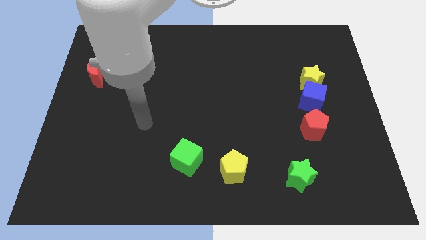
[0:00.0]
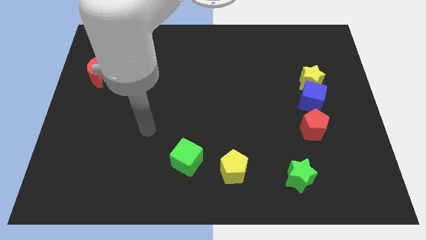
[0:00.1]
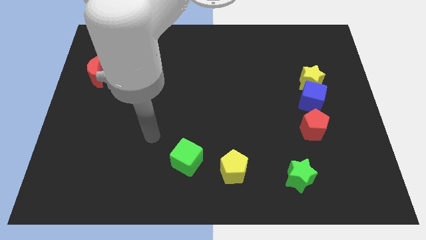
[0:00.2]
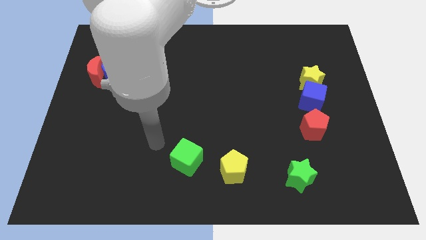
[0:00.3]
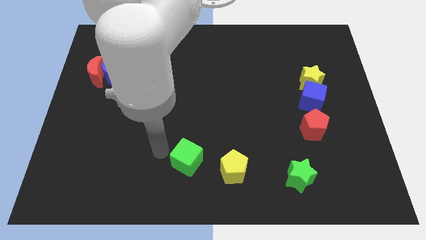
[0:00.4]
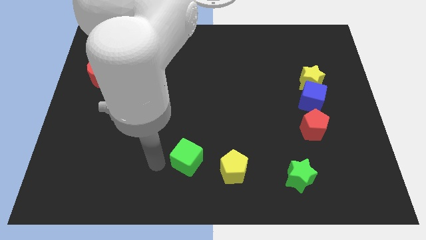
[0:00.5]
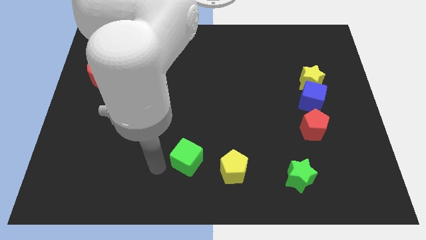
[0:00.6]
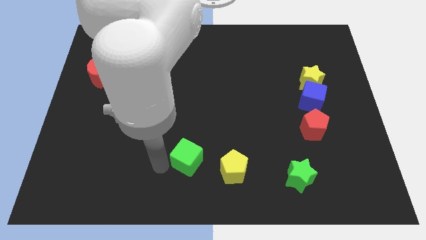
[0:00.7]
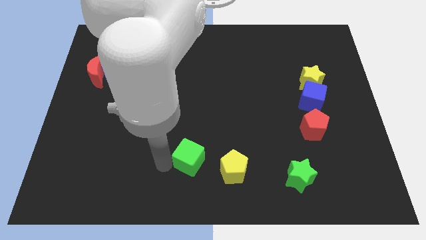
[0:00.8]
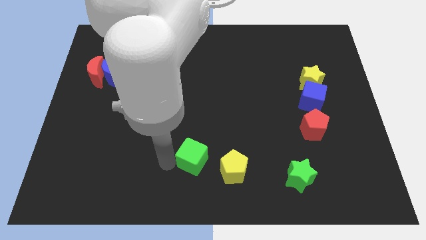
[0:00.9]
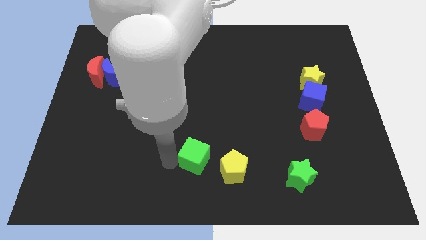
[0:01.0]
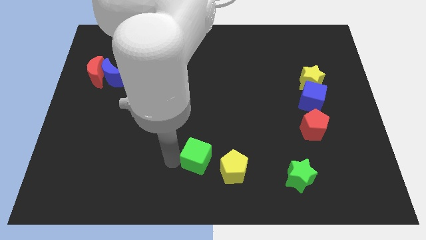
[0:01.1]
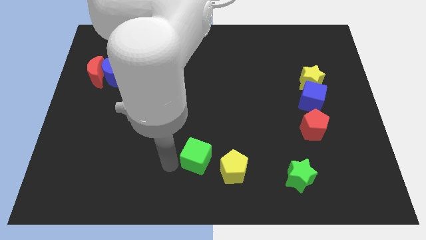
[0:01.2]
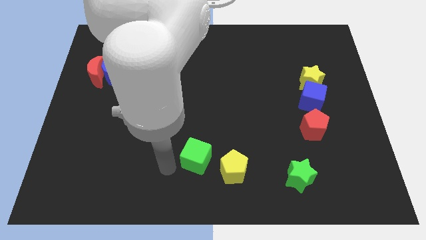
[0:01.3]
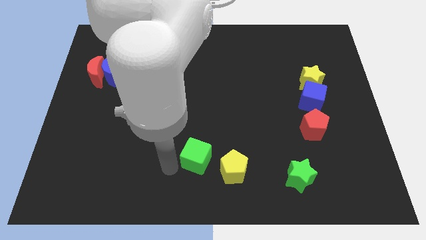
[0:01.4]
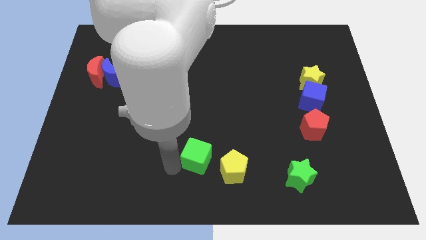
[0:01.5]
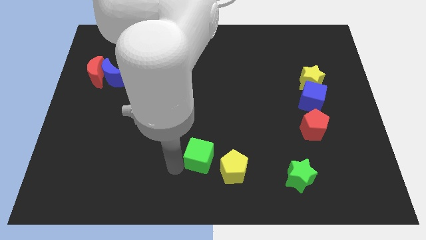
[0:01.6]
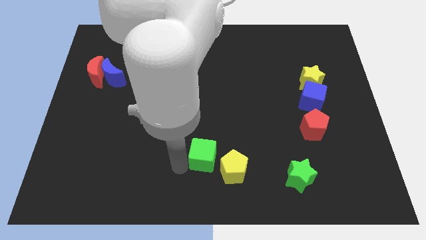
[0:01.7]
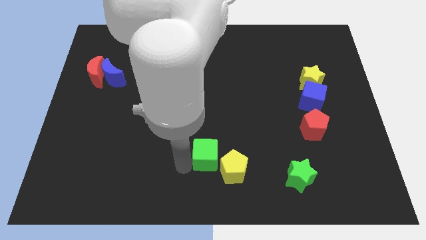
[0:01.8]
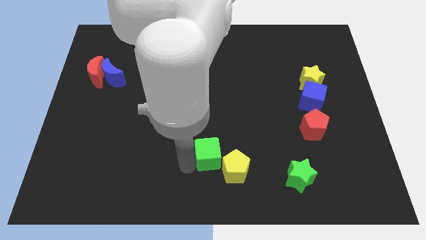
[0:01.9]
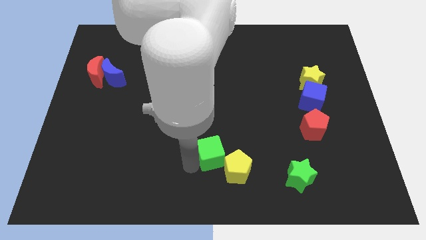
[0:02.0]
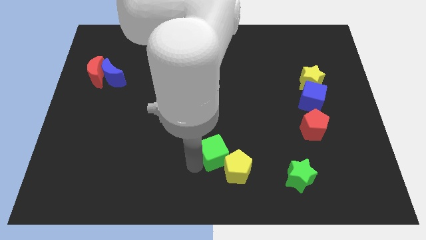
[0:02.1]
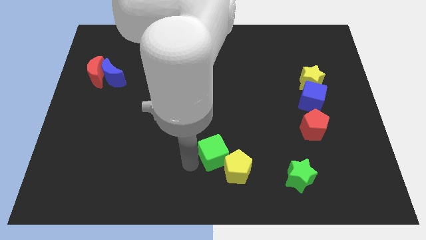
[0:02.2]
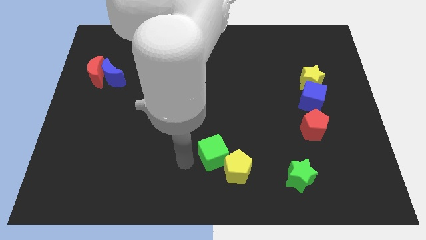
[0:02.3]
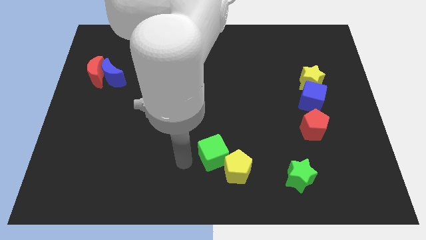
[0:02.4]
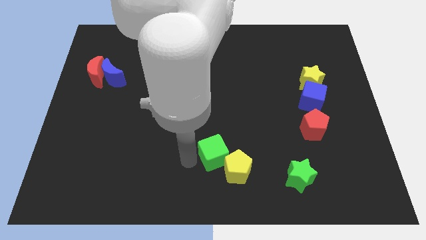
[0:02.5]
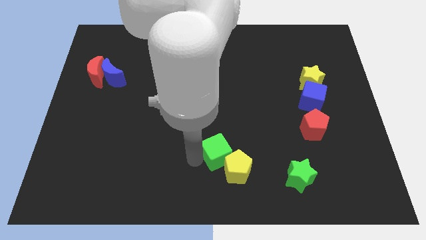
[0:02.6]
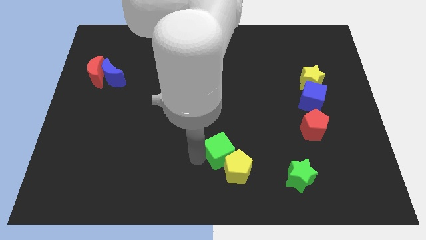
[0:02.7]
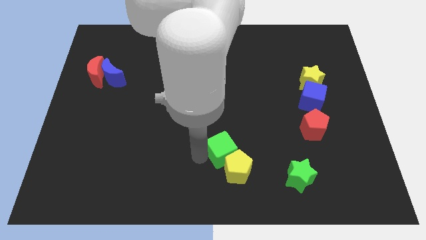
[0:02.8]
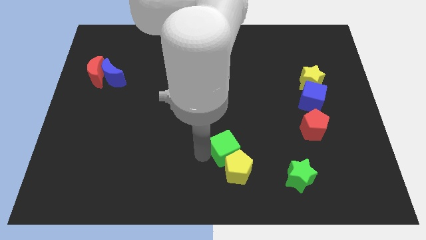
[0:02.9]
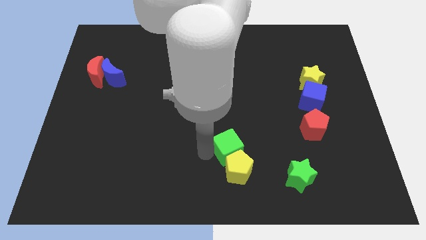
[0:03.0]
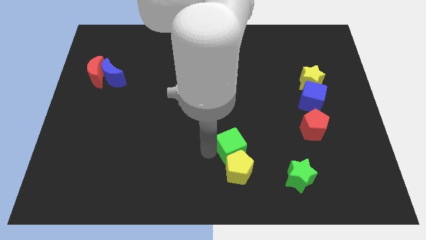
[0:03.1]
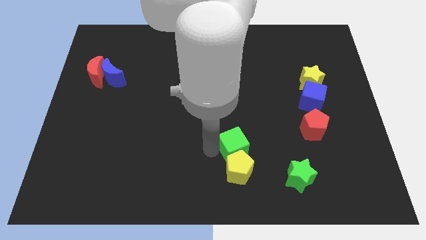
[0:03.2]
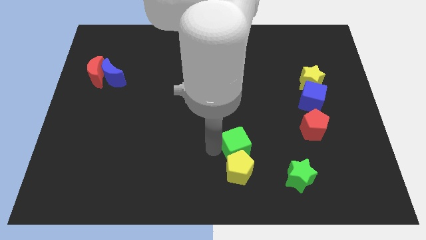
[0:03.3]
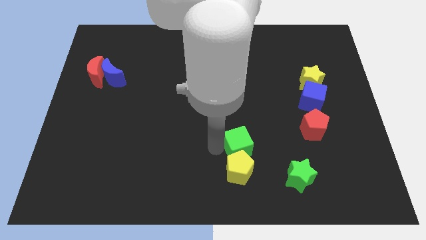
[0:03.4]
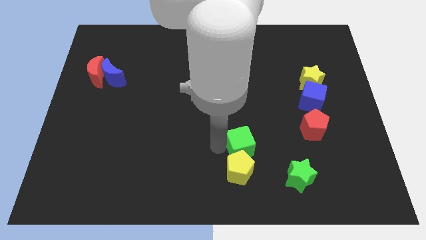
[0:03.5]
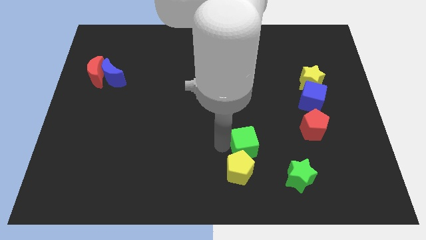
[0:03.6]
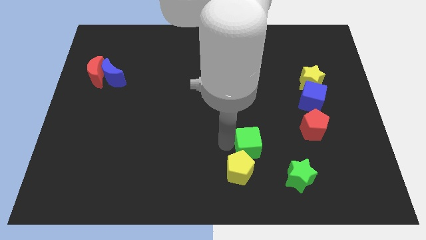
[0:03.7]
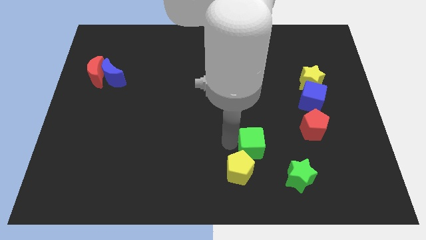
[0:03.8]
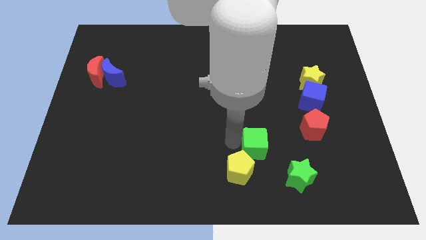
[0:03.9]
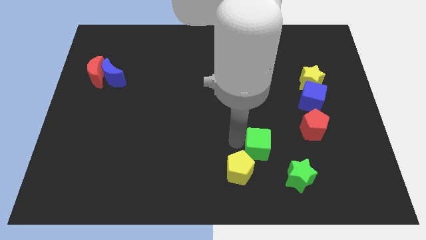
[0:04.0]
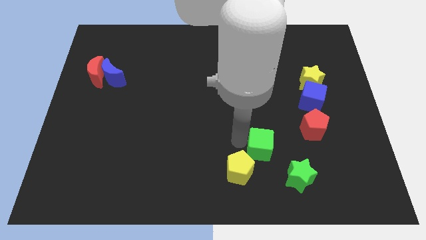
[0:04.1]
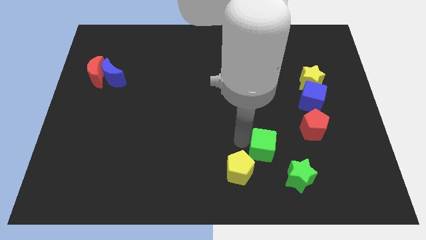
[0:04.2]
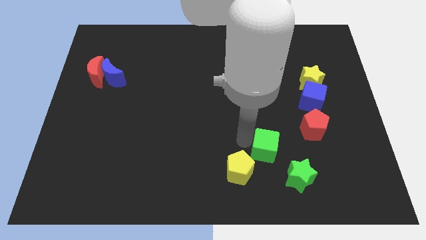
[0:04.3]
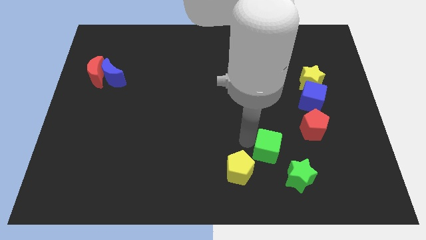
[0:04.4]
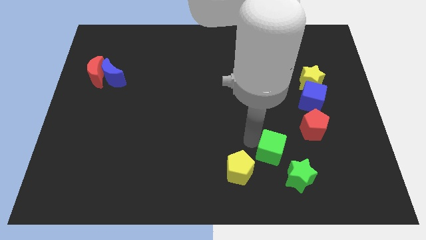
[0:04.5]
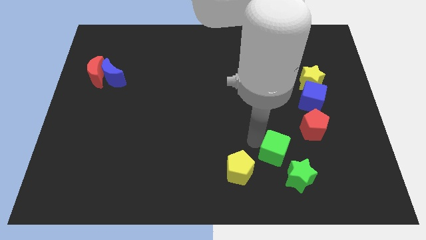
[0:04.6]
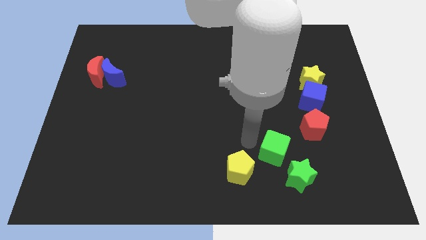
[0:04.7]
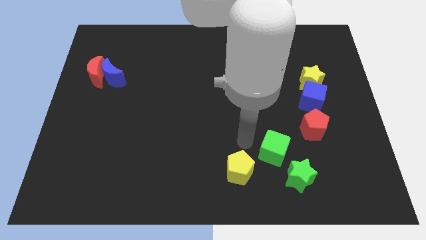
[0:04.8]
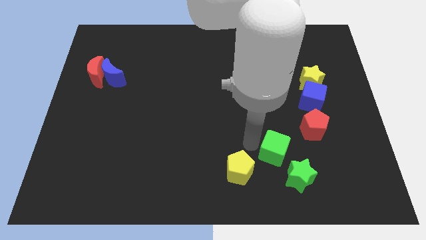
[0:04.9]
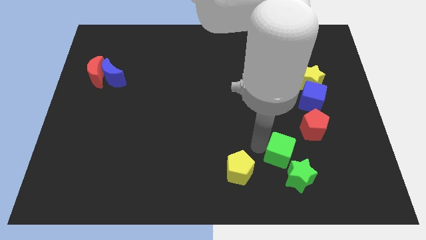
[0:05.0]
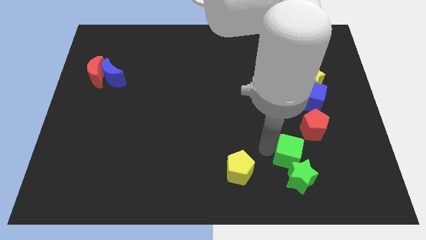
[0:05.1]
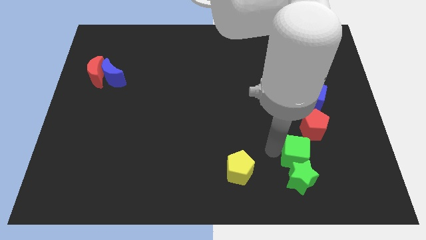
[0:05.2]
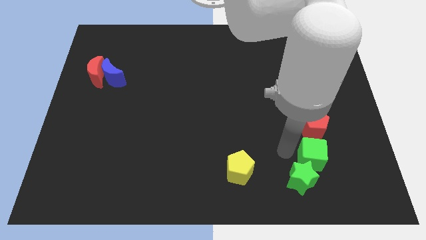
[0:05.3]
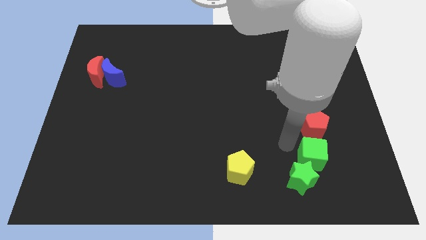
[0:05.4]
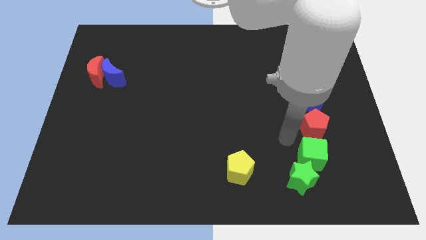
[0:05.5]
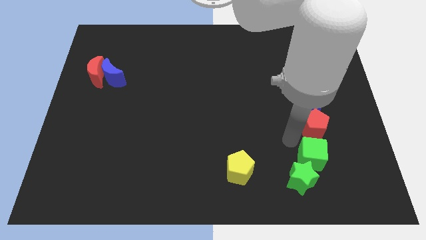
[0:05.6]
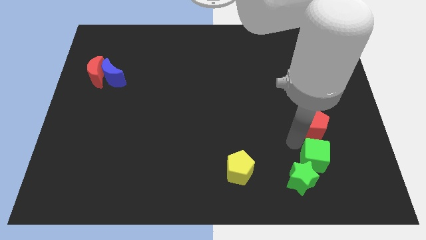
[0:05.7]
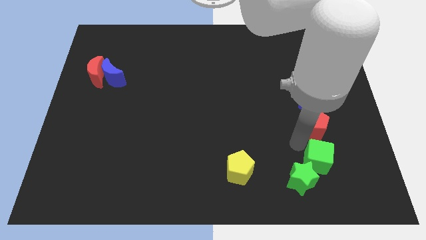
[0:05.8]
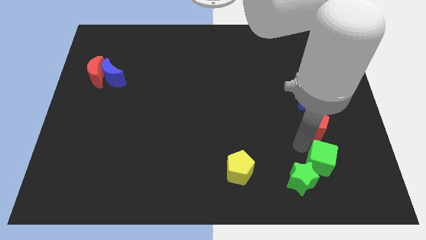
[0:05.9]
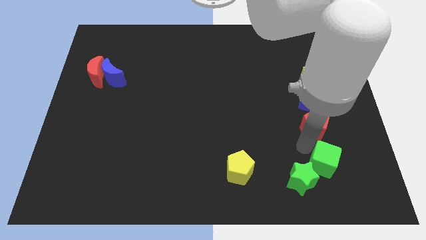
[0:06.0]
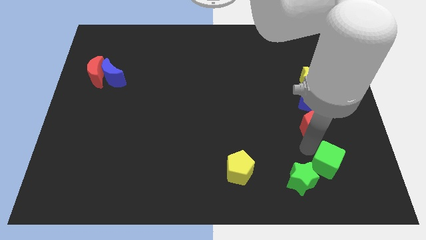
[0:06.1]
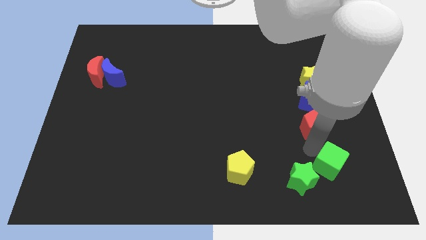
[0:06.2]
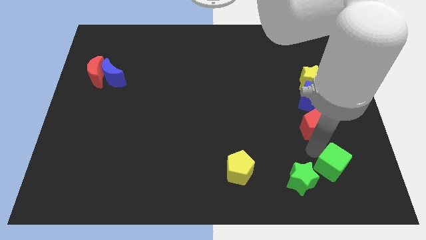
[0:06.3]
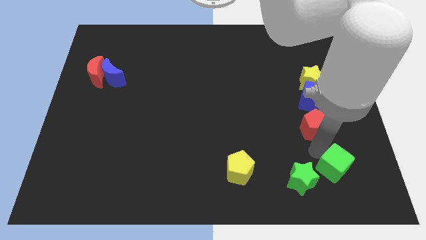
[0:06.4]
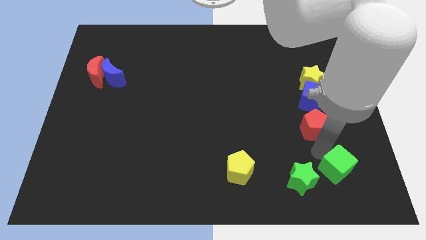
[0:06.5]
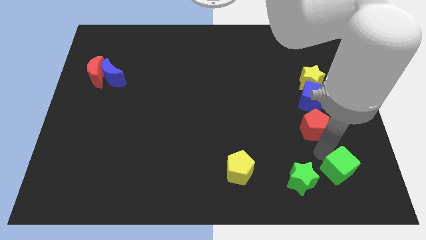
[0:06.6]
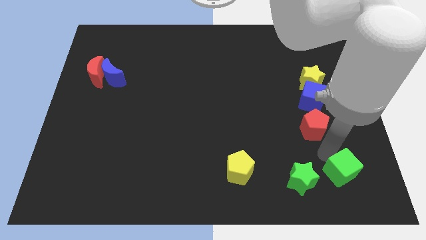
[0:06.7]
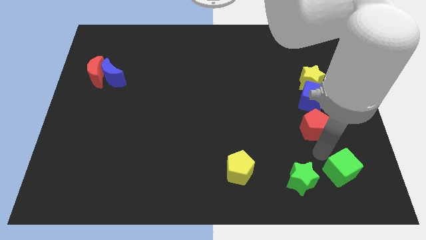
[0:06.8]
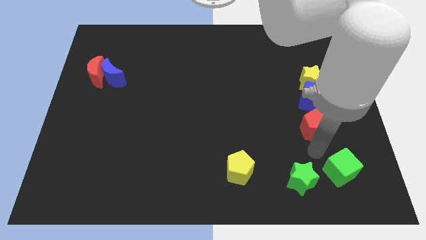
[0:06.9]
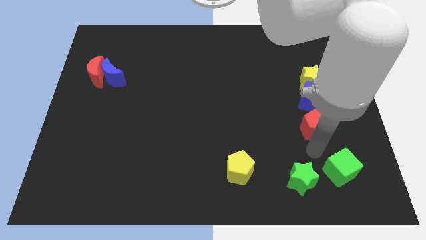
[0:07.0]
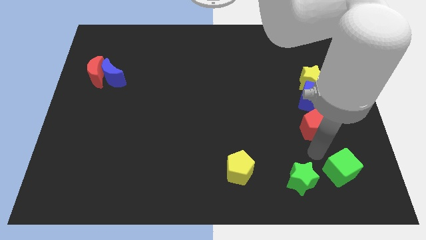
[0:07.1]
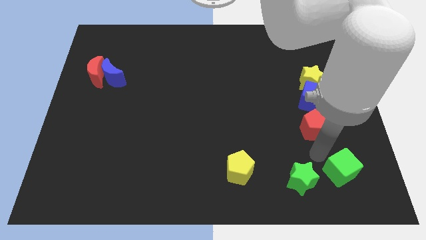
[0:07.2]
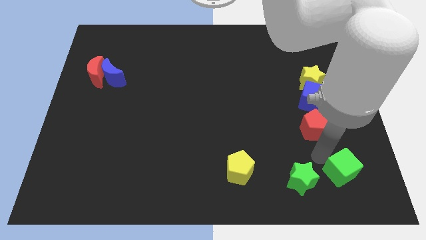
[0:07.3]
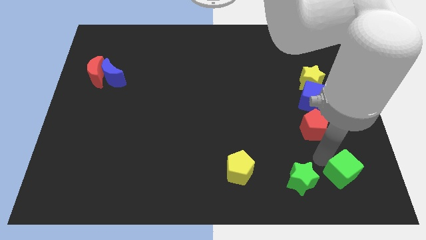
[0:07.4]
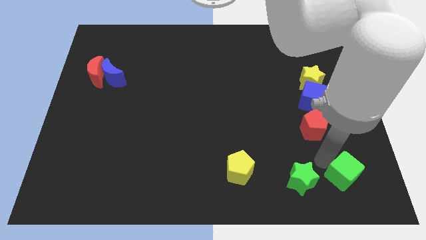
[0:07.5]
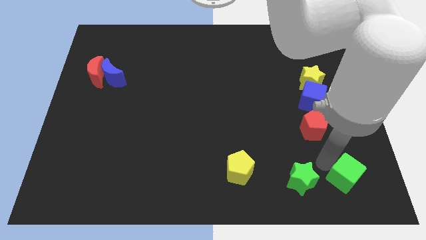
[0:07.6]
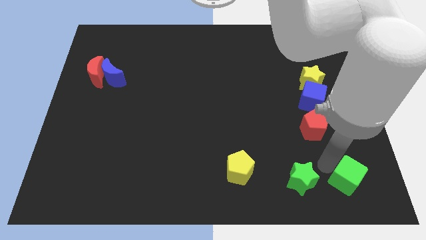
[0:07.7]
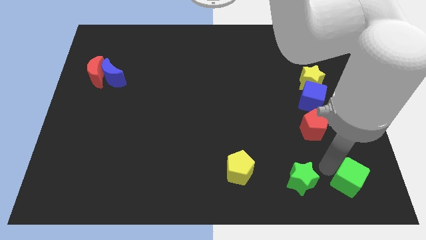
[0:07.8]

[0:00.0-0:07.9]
push the green cube to the bottom right

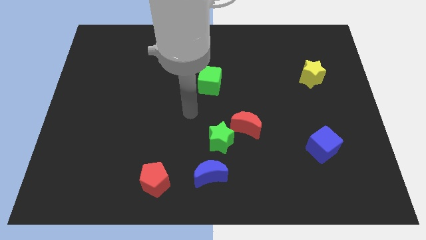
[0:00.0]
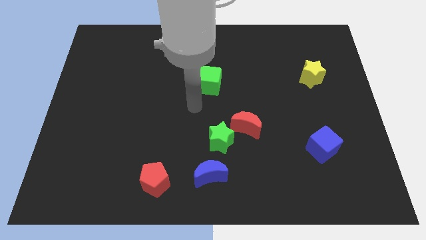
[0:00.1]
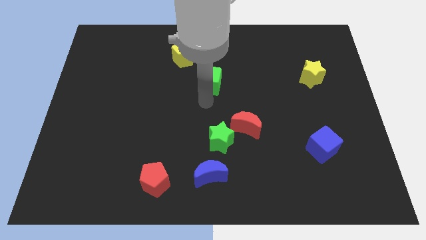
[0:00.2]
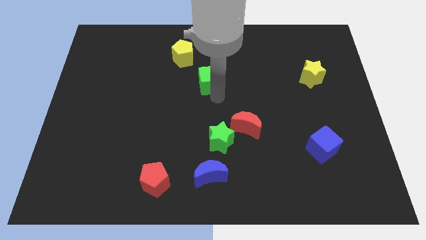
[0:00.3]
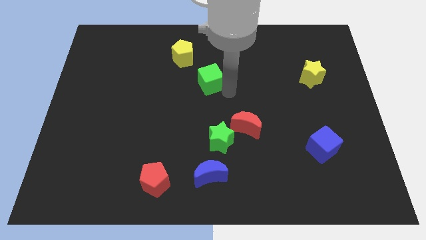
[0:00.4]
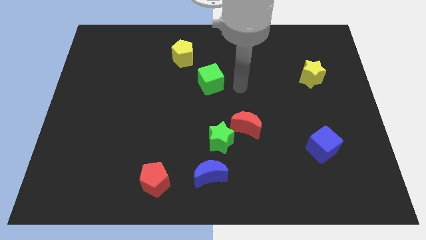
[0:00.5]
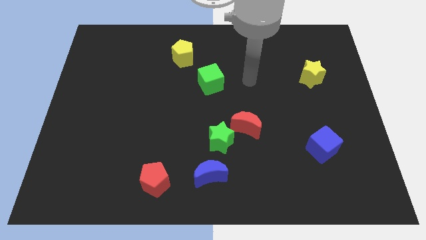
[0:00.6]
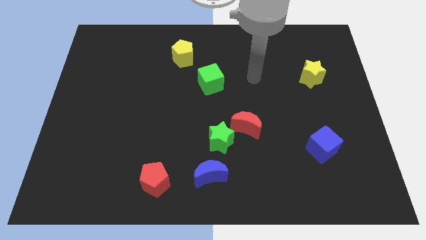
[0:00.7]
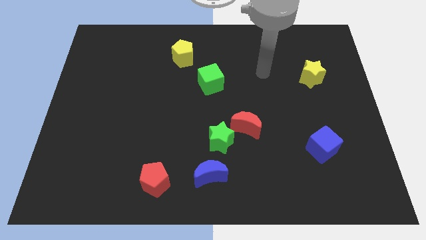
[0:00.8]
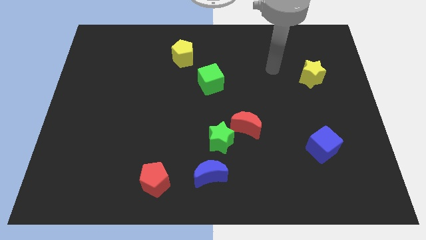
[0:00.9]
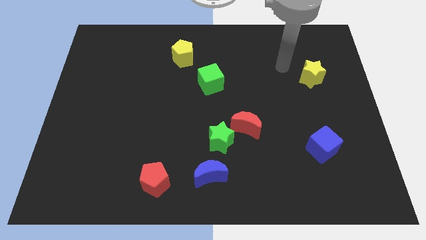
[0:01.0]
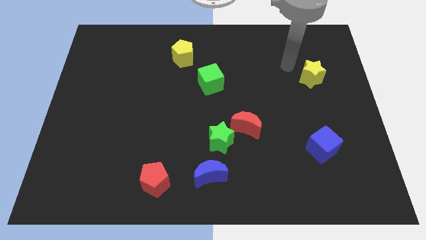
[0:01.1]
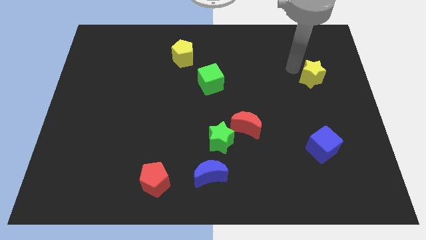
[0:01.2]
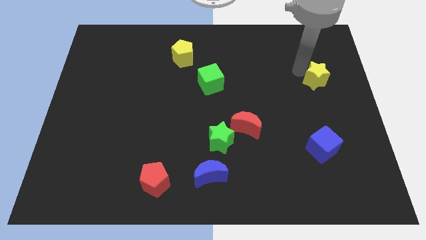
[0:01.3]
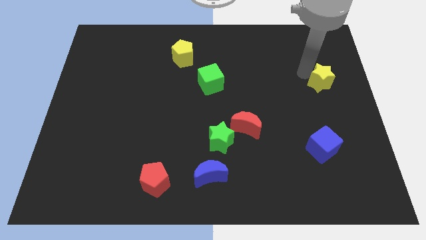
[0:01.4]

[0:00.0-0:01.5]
move the yellow star to the center right
